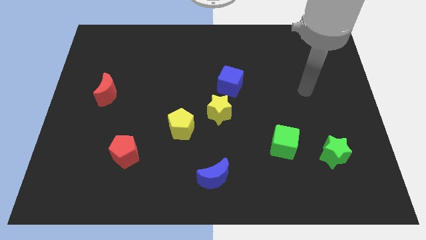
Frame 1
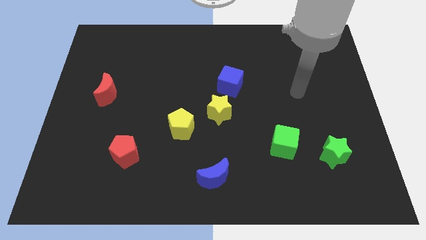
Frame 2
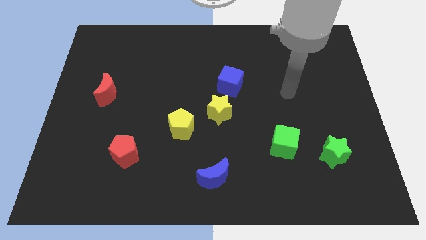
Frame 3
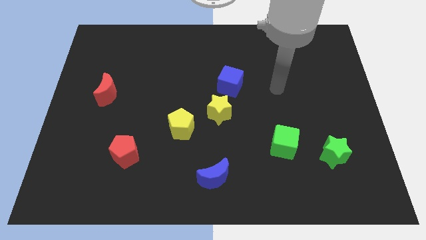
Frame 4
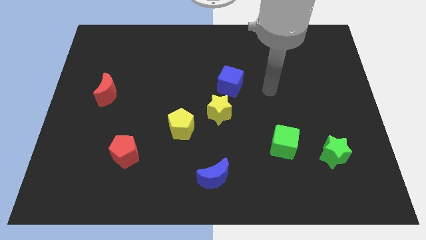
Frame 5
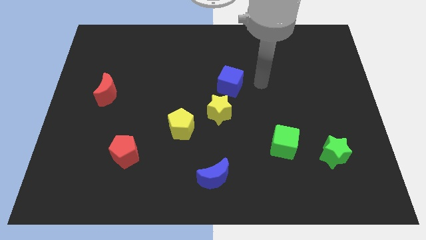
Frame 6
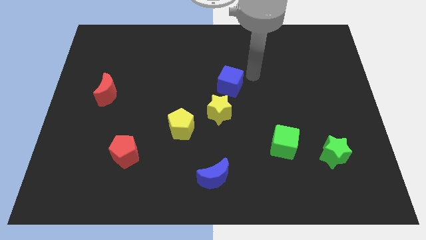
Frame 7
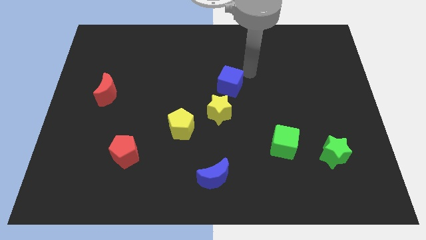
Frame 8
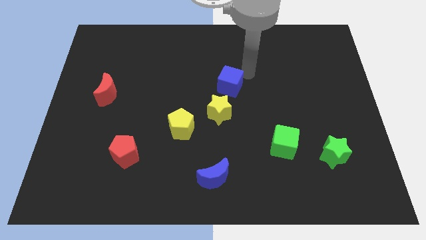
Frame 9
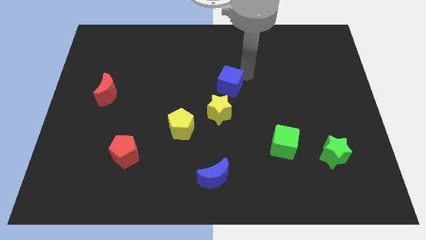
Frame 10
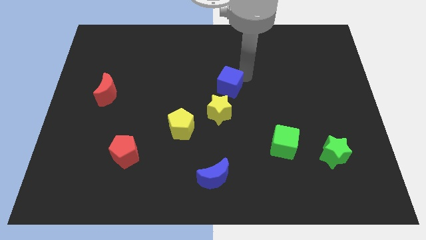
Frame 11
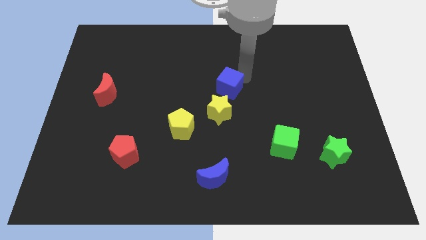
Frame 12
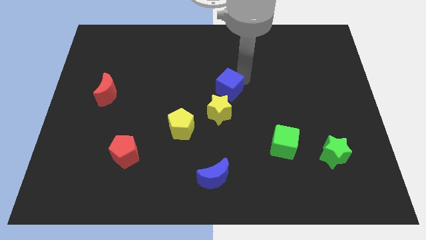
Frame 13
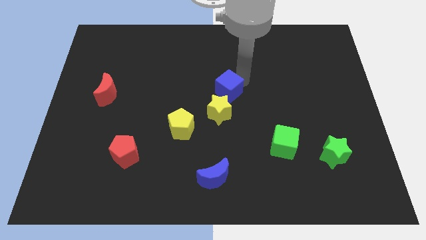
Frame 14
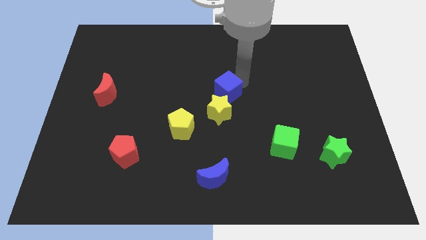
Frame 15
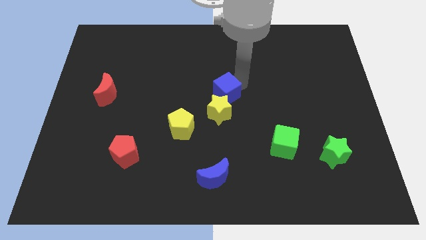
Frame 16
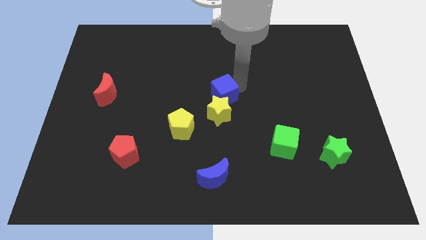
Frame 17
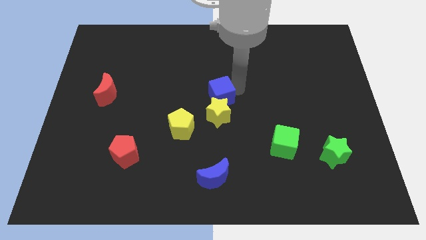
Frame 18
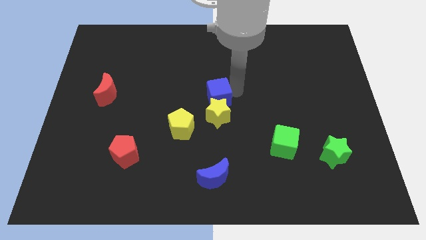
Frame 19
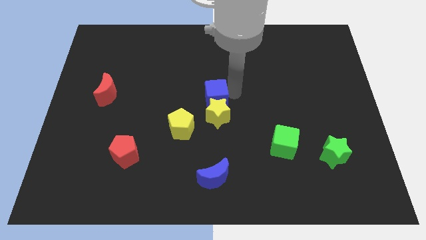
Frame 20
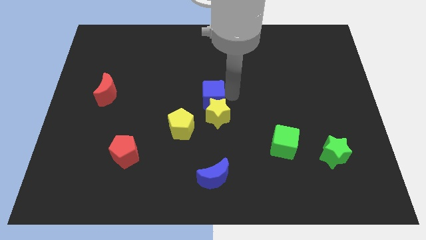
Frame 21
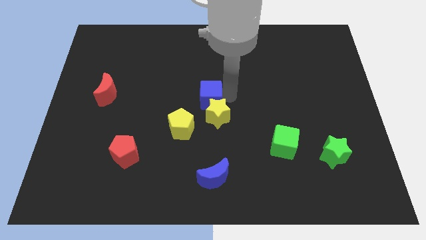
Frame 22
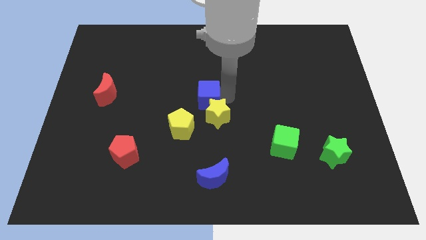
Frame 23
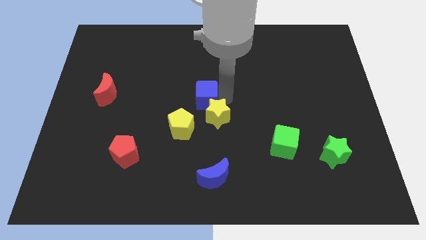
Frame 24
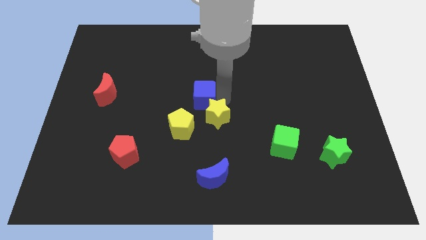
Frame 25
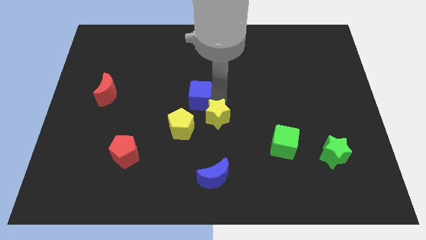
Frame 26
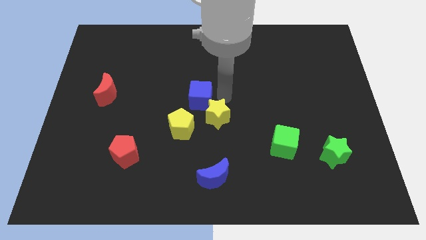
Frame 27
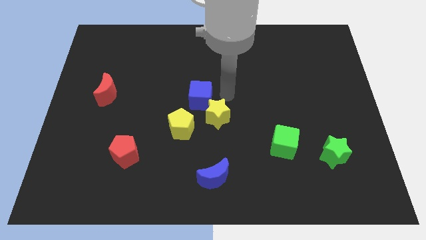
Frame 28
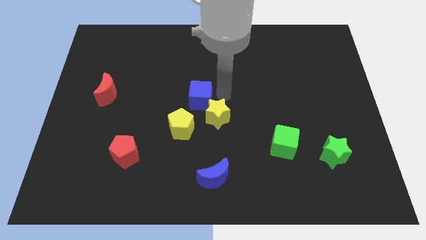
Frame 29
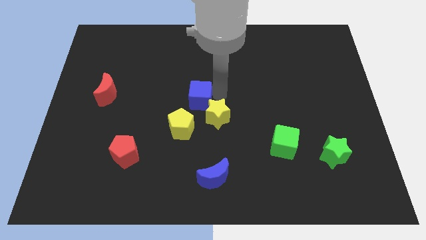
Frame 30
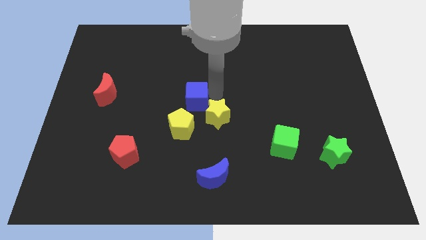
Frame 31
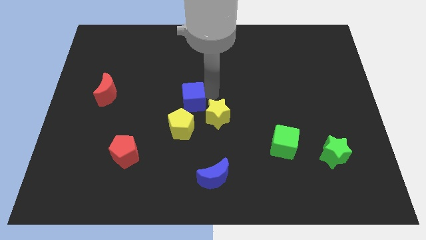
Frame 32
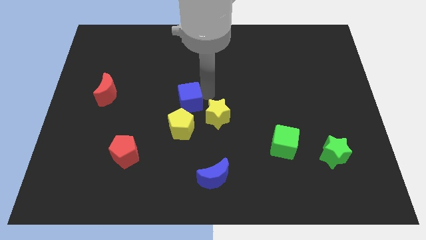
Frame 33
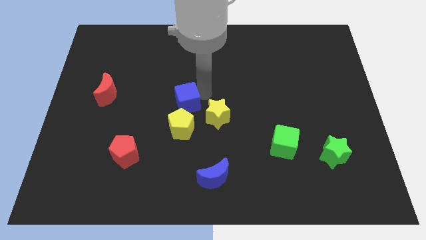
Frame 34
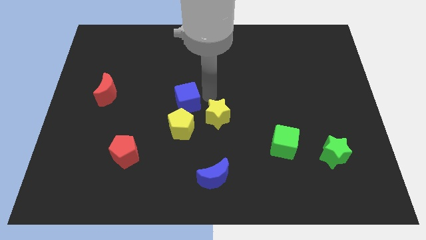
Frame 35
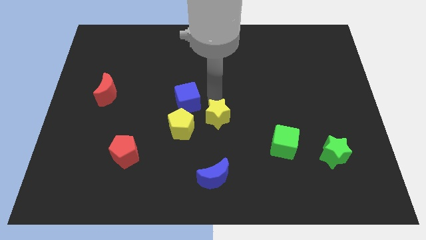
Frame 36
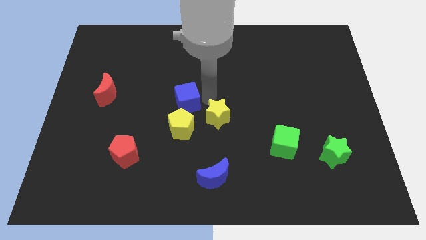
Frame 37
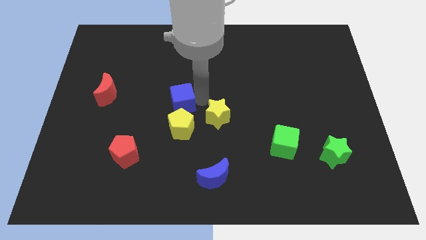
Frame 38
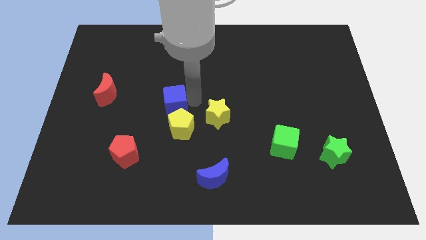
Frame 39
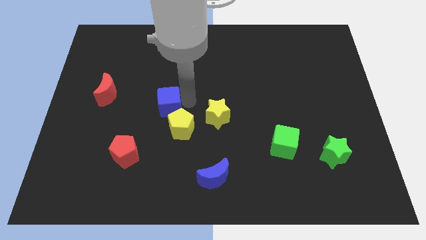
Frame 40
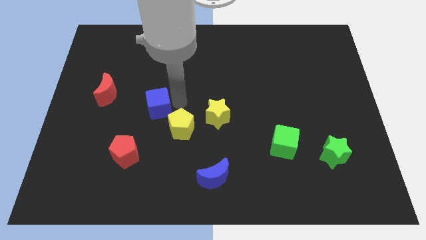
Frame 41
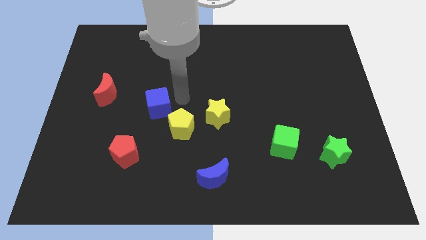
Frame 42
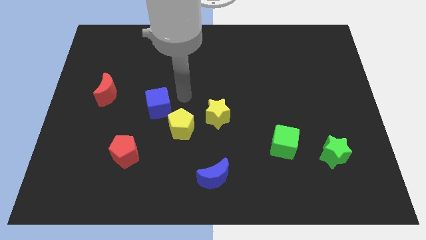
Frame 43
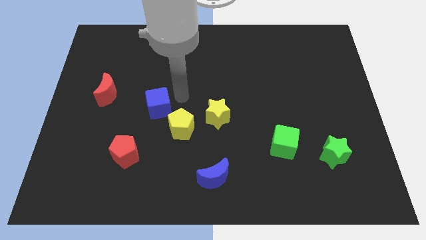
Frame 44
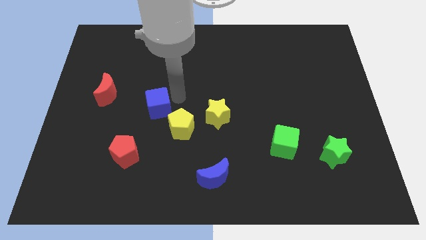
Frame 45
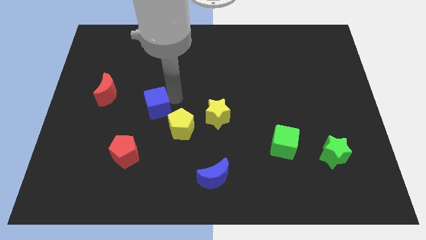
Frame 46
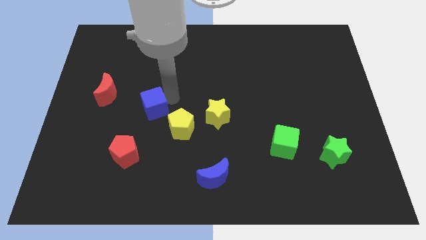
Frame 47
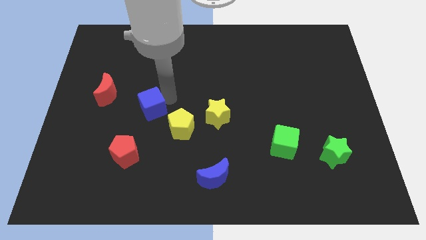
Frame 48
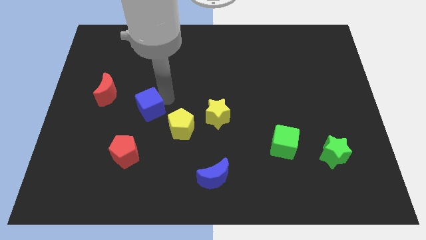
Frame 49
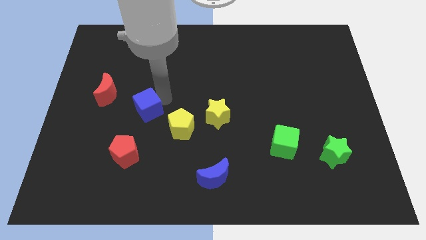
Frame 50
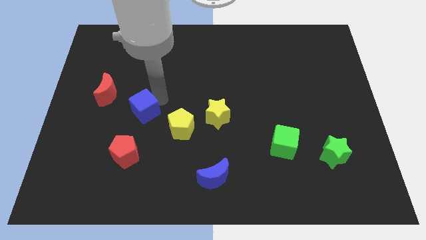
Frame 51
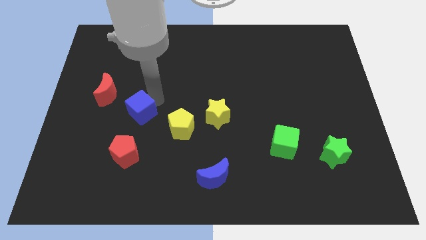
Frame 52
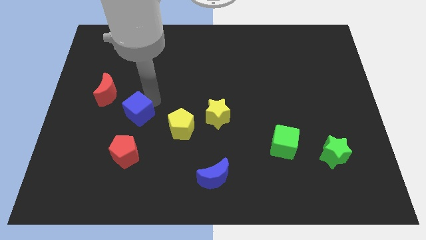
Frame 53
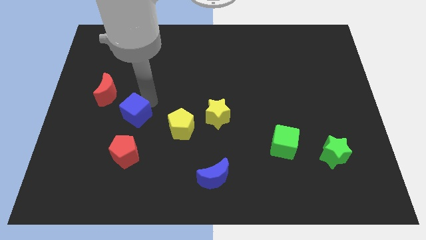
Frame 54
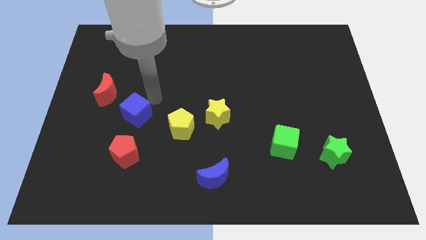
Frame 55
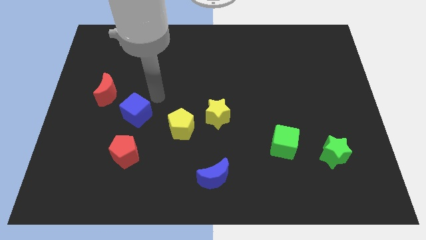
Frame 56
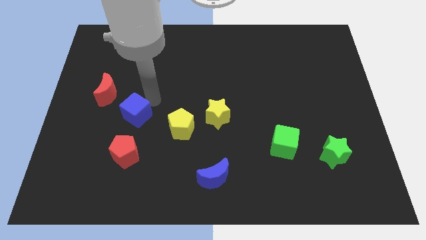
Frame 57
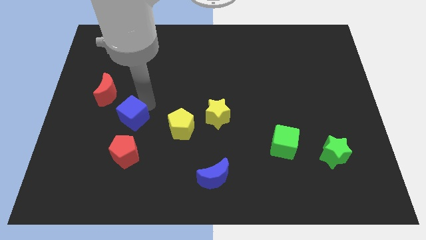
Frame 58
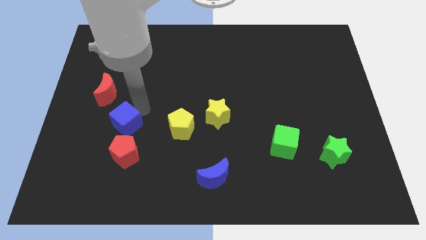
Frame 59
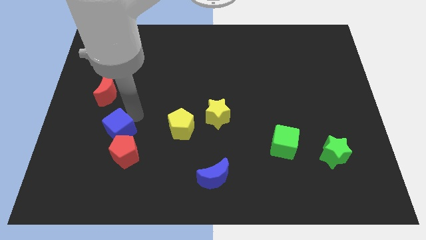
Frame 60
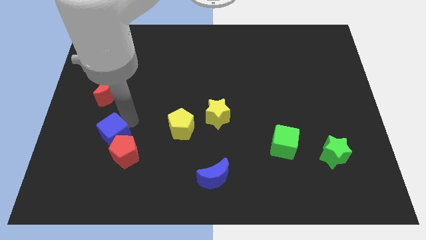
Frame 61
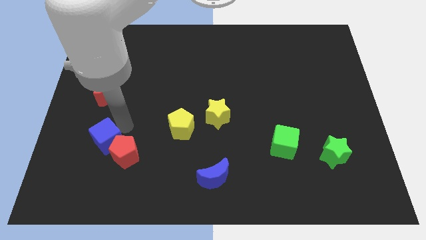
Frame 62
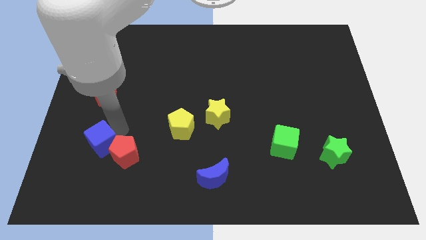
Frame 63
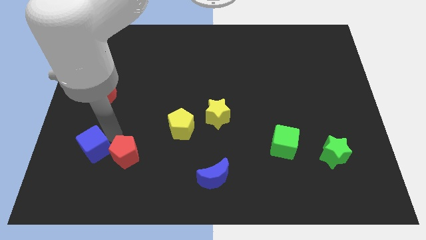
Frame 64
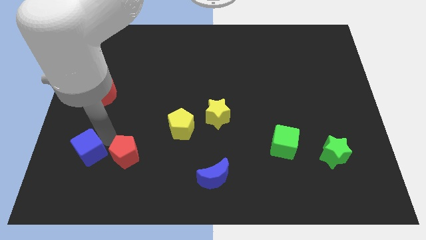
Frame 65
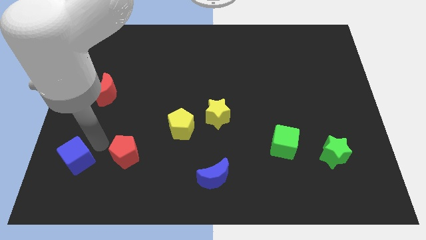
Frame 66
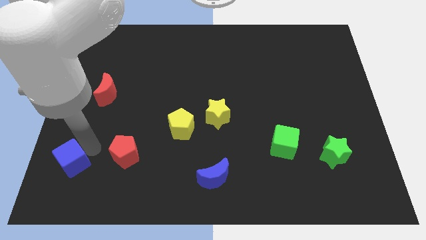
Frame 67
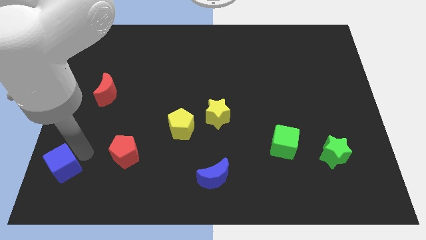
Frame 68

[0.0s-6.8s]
push the blue cube to the bottom left corner
